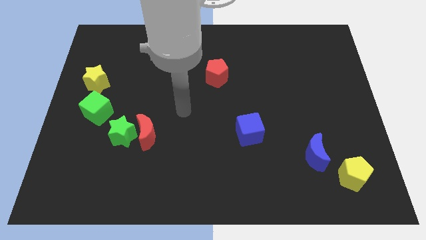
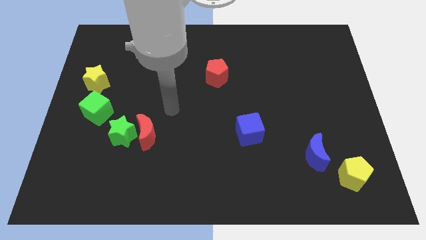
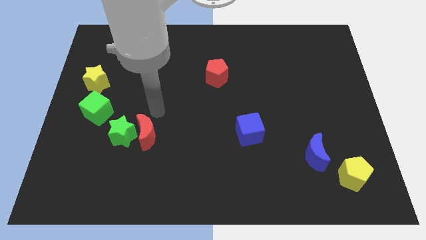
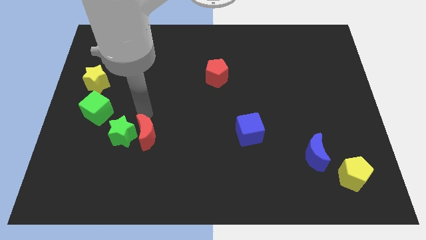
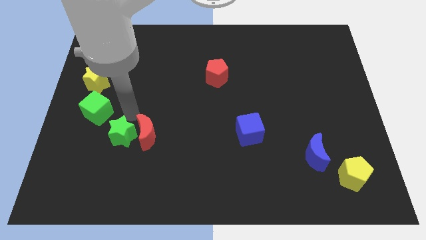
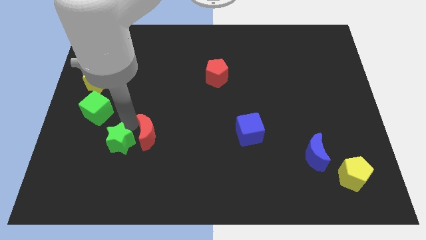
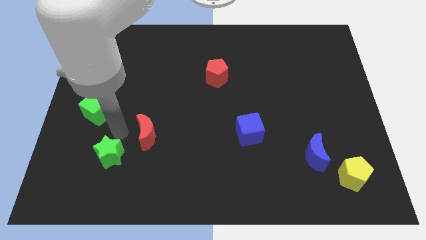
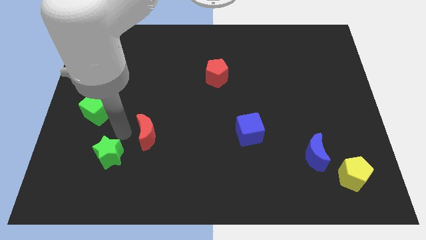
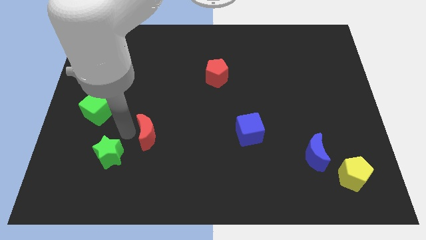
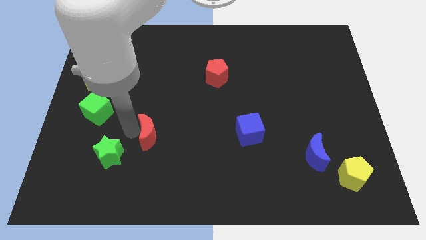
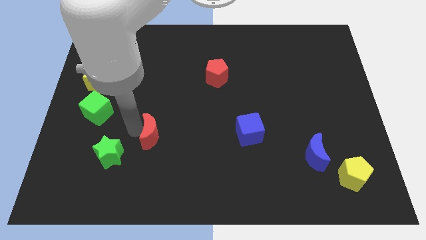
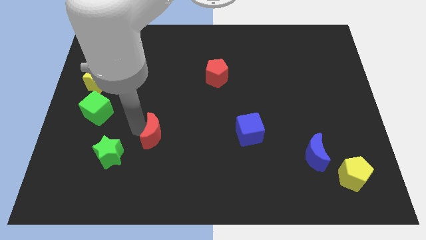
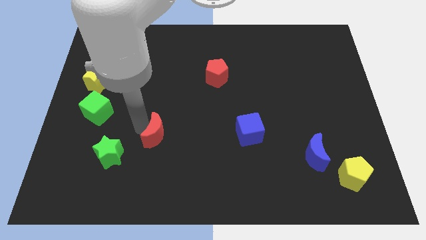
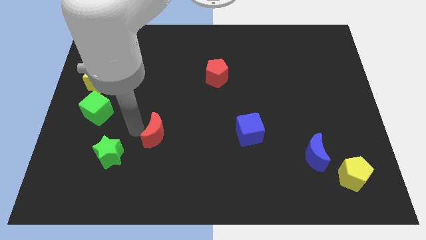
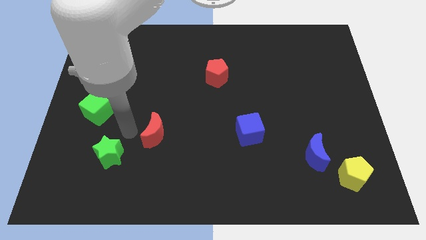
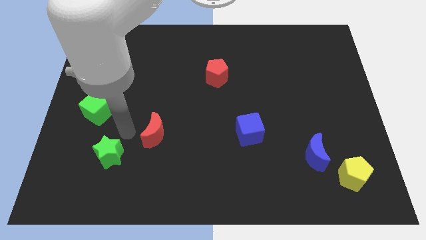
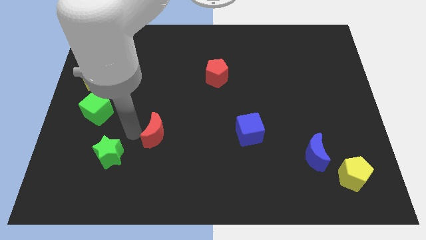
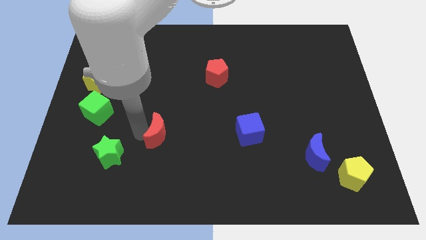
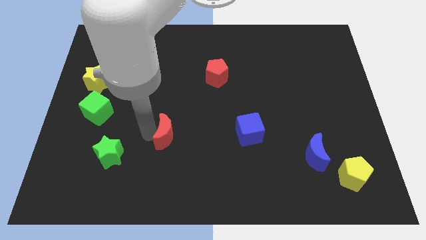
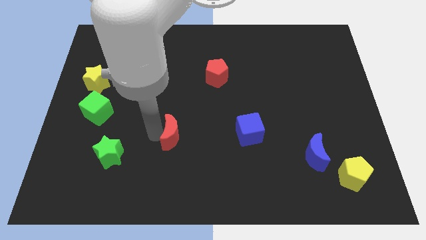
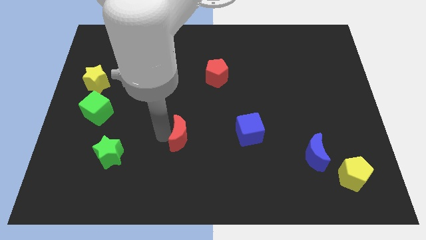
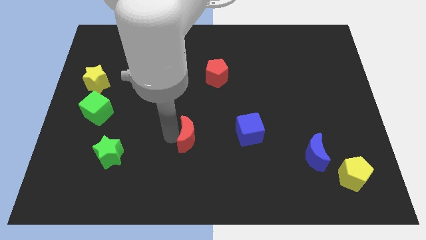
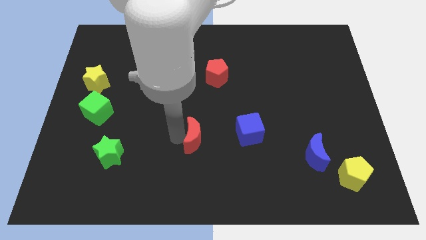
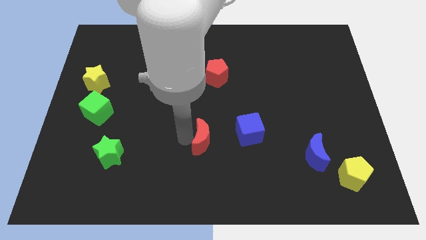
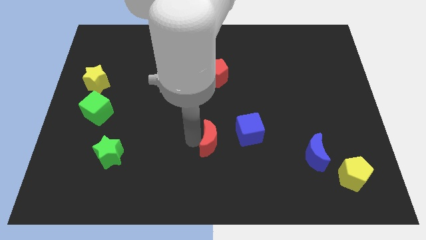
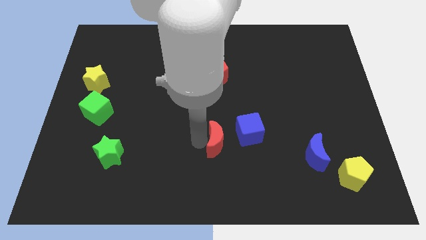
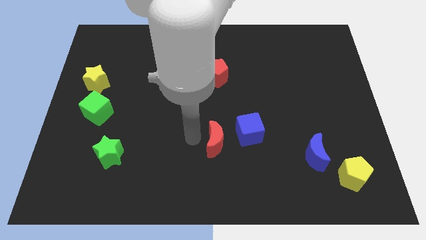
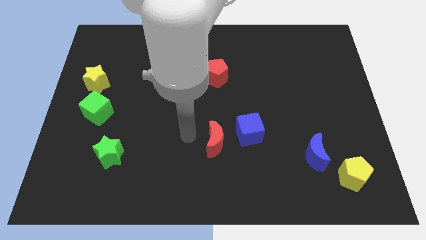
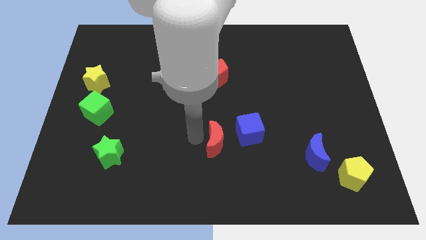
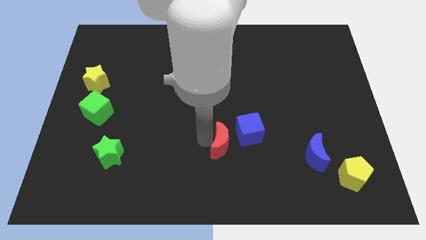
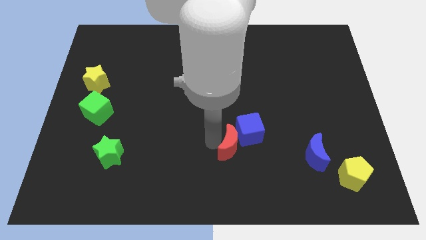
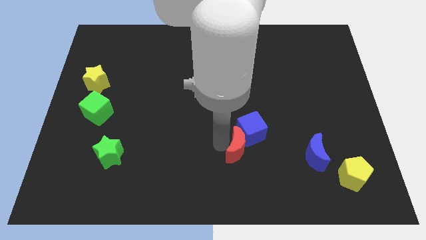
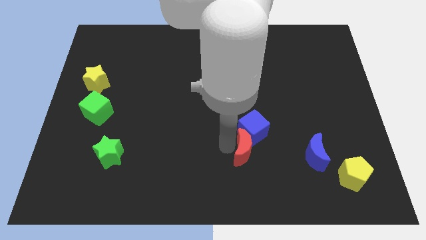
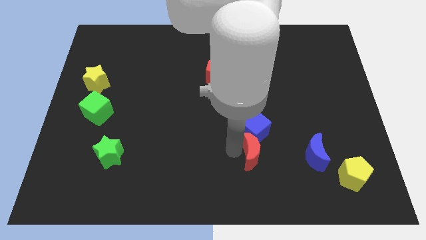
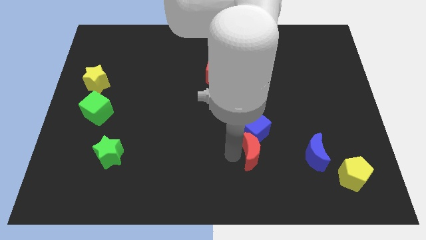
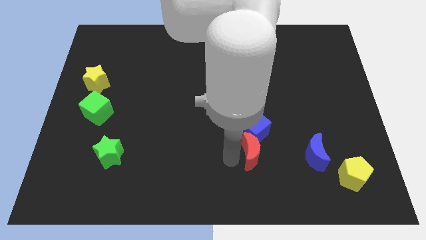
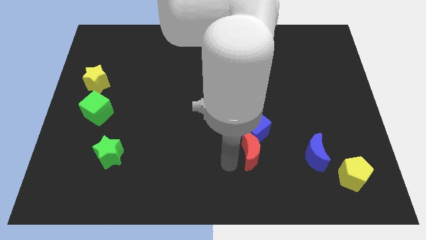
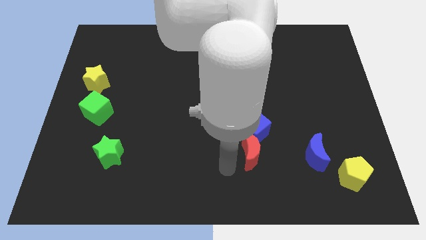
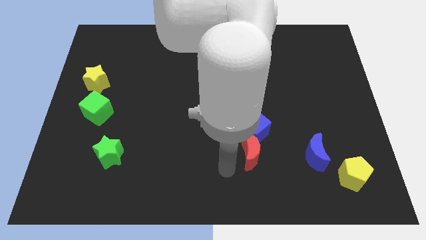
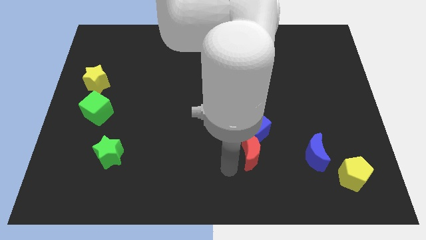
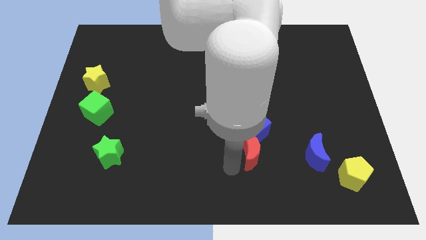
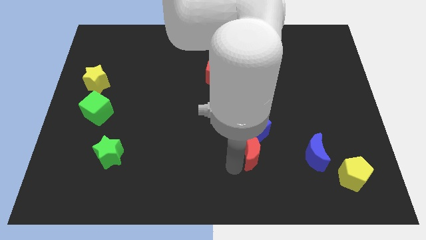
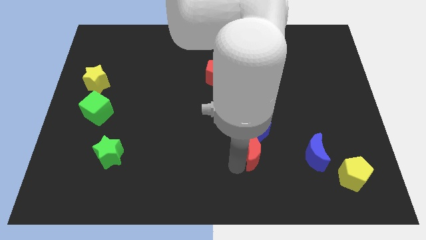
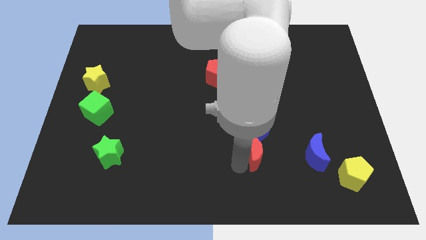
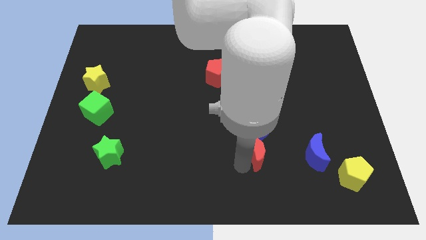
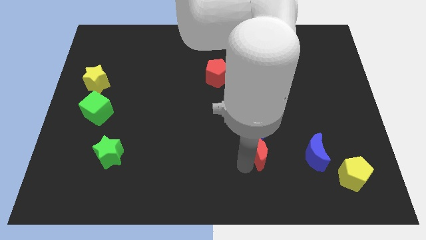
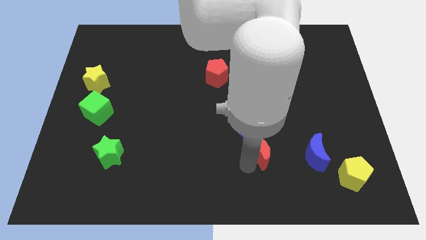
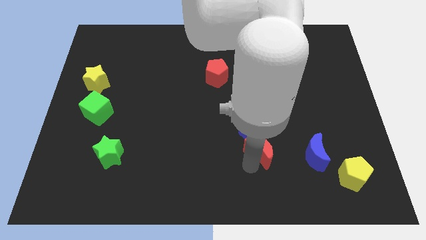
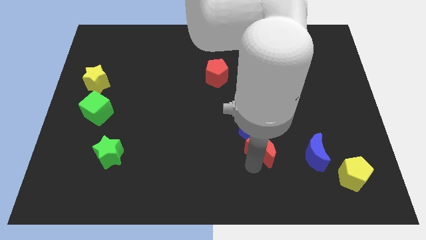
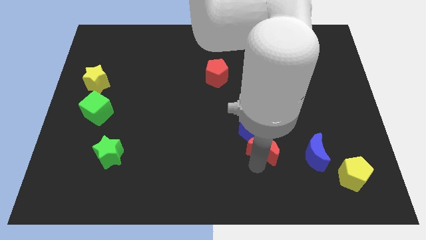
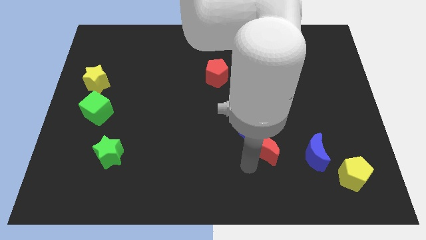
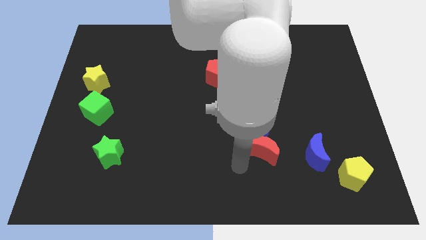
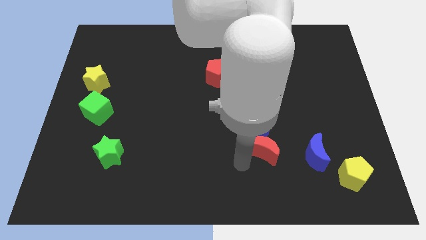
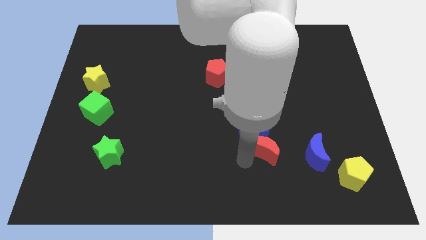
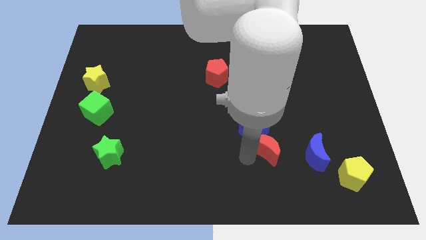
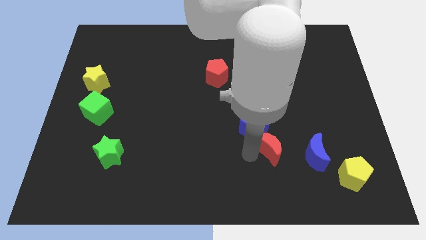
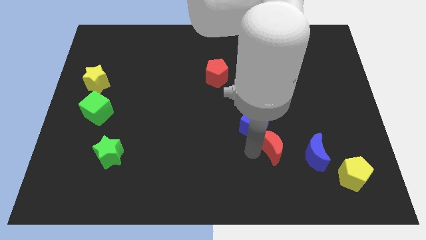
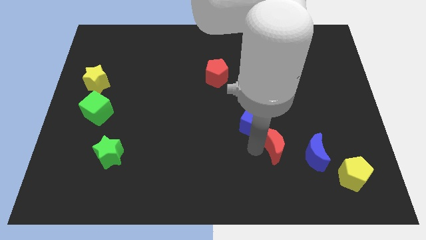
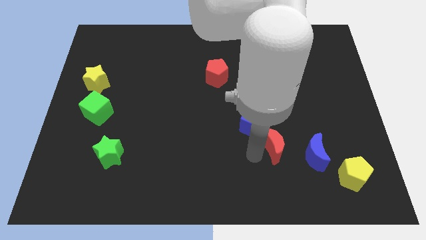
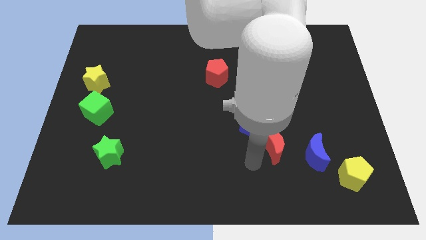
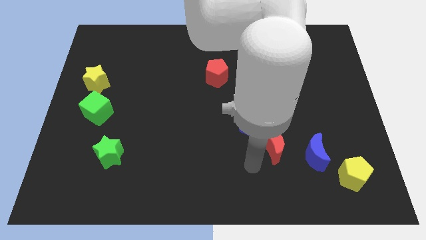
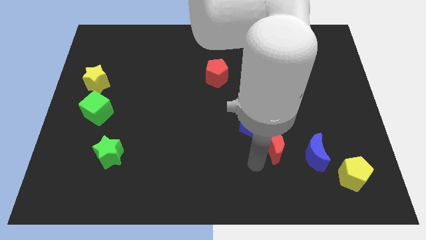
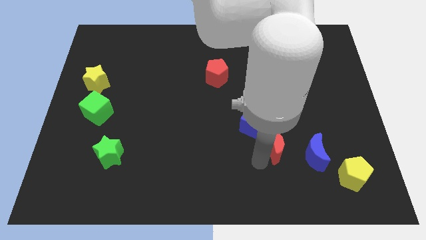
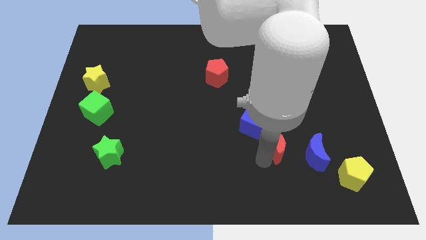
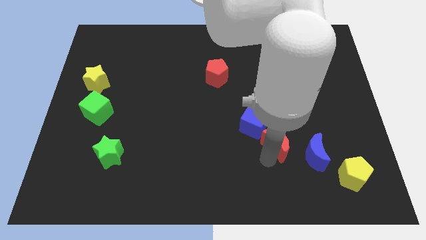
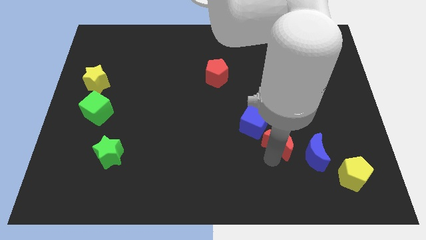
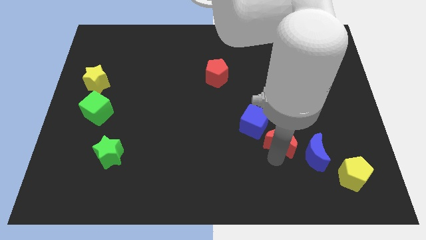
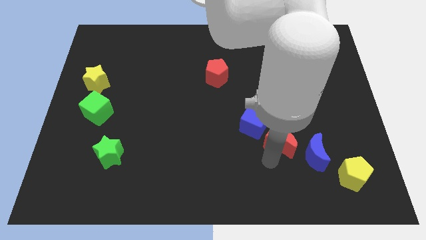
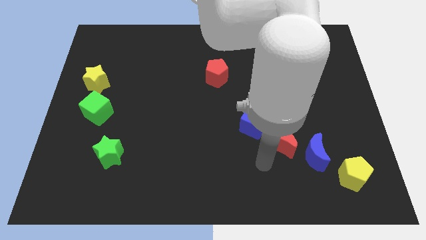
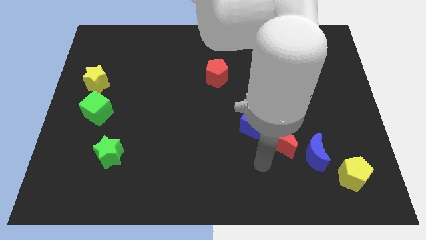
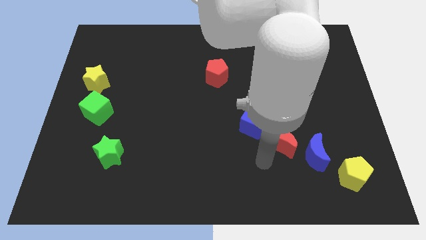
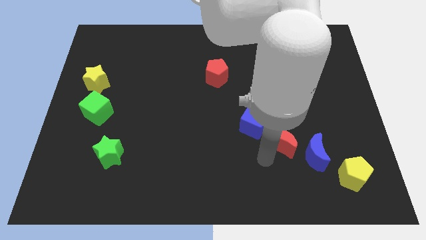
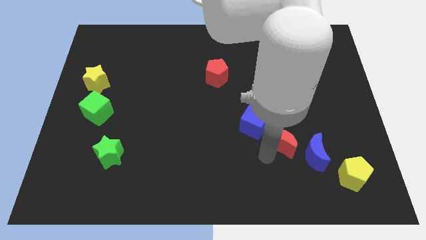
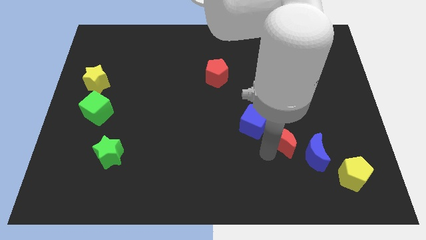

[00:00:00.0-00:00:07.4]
put the red moon to the right of the blue cube
